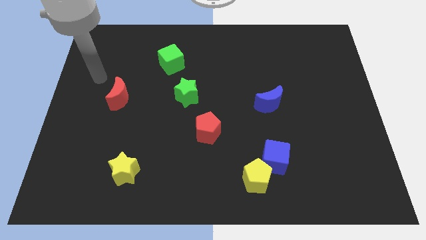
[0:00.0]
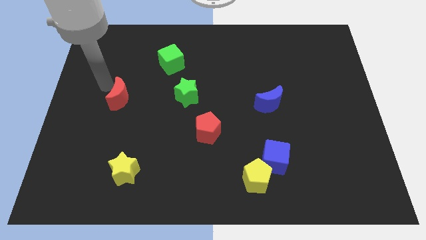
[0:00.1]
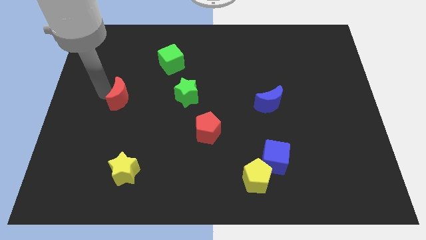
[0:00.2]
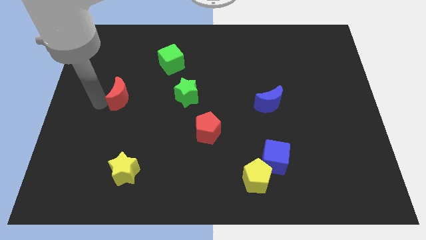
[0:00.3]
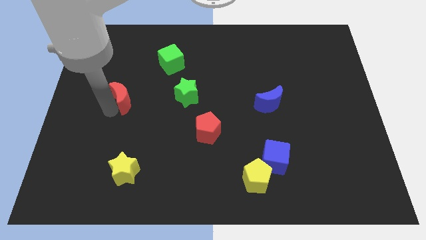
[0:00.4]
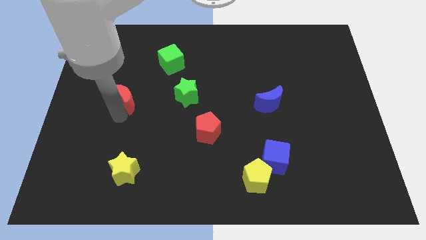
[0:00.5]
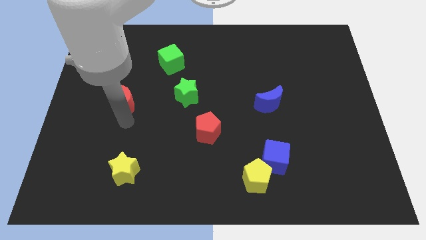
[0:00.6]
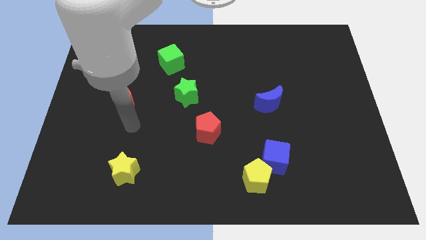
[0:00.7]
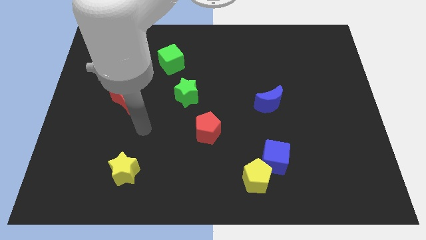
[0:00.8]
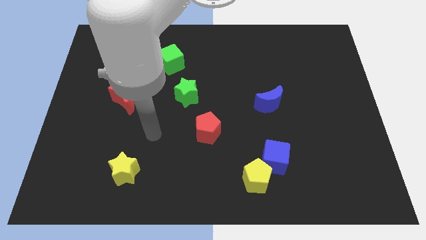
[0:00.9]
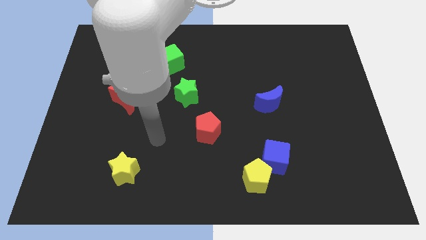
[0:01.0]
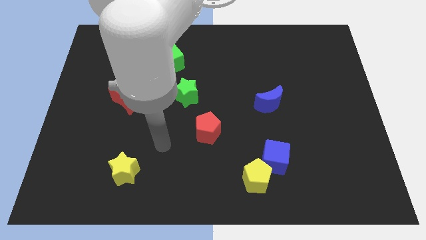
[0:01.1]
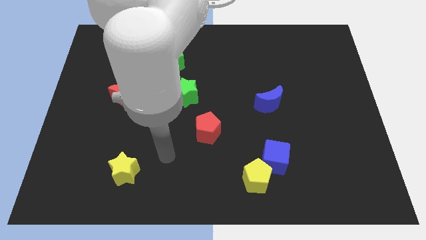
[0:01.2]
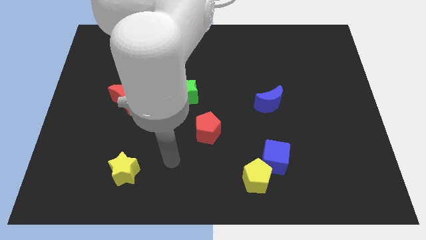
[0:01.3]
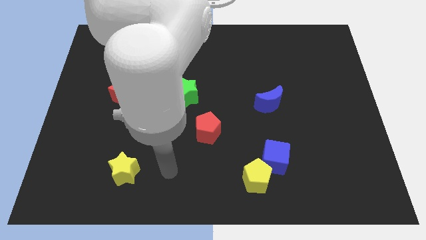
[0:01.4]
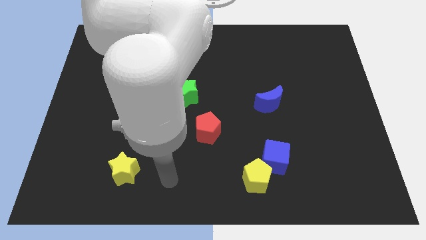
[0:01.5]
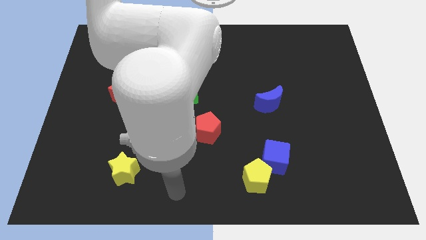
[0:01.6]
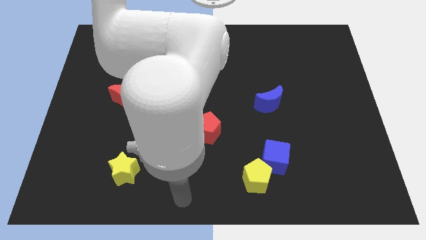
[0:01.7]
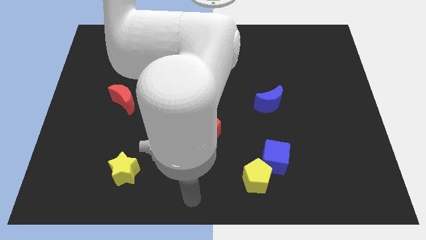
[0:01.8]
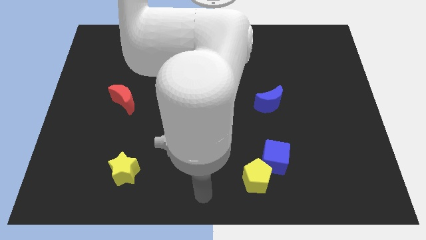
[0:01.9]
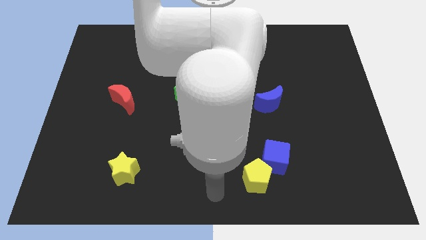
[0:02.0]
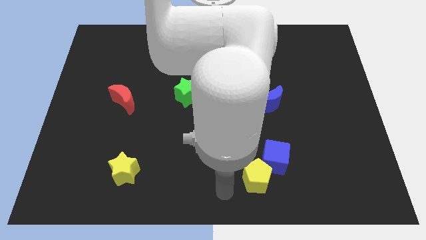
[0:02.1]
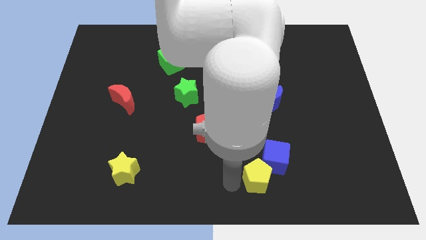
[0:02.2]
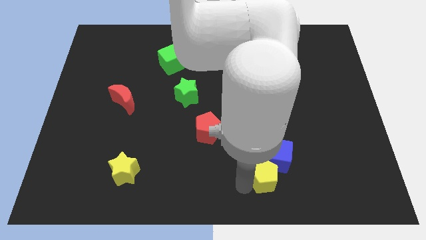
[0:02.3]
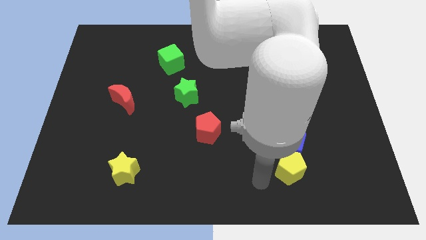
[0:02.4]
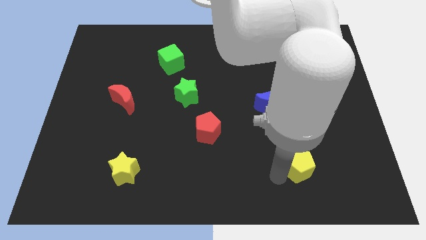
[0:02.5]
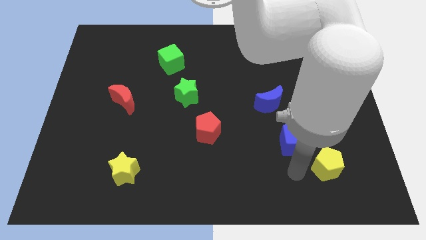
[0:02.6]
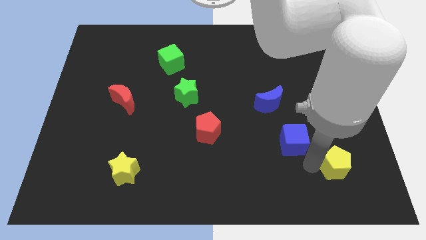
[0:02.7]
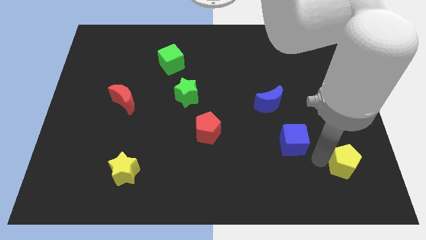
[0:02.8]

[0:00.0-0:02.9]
pull the blue cube apart from the yellow pentagon

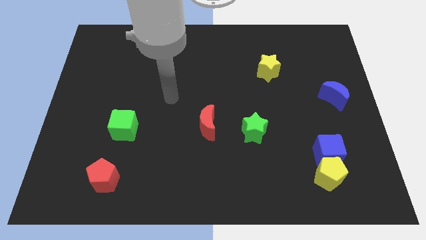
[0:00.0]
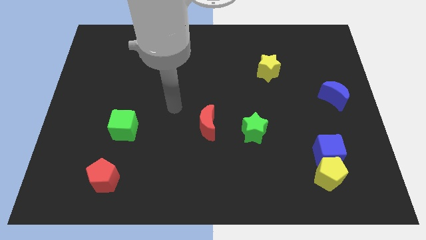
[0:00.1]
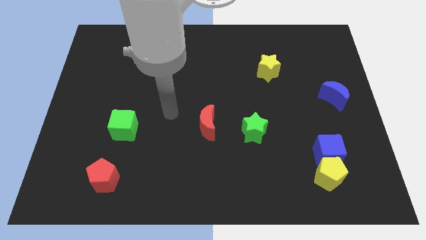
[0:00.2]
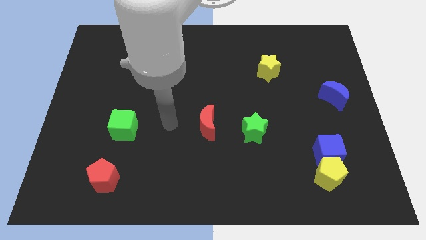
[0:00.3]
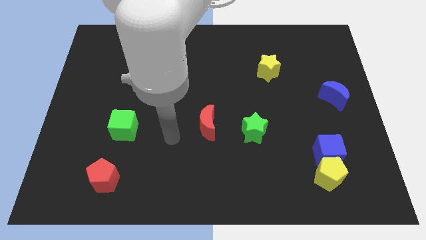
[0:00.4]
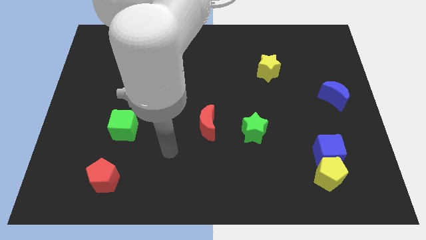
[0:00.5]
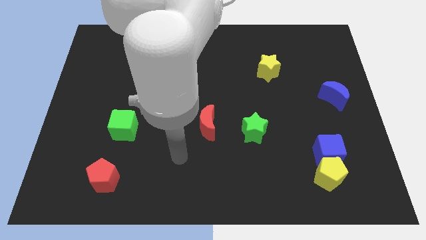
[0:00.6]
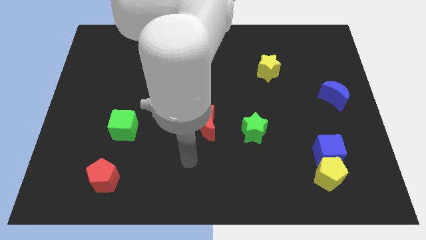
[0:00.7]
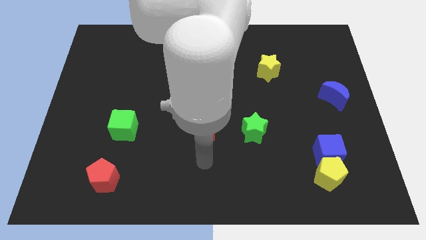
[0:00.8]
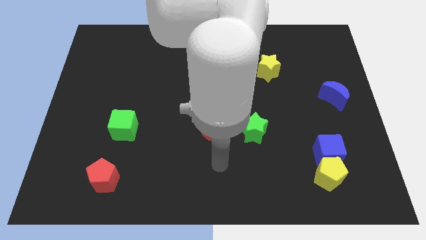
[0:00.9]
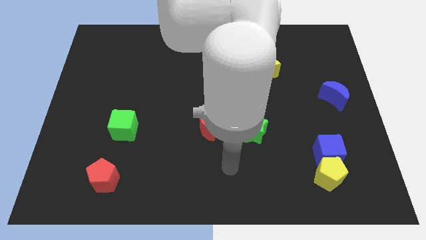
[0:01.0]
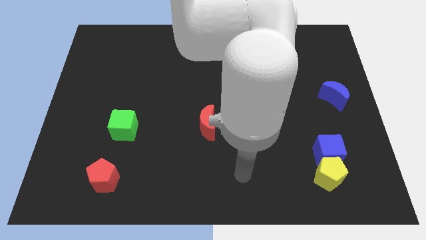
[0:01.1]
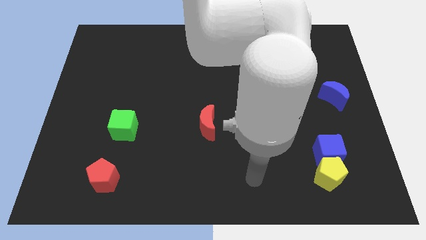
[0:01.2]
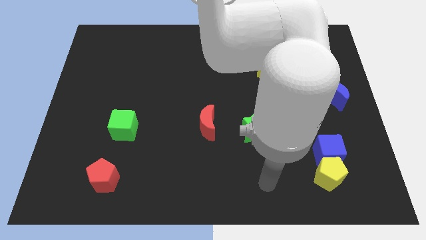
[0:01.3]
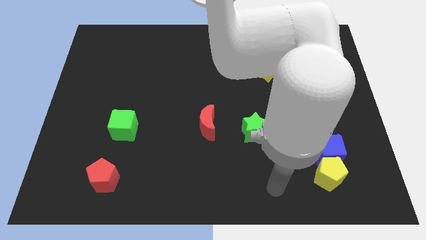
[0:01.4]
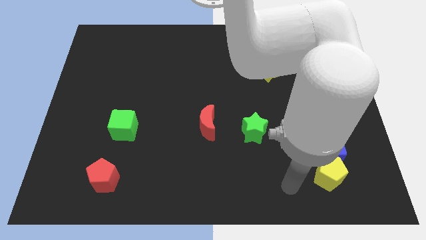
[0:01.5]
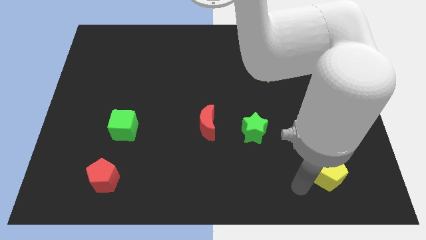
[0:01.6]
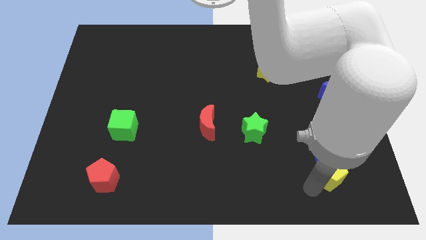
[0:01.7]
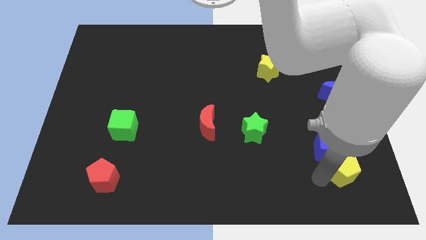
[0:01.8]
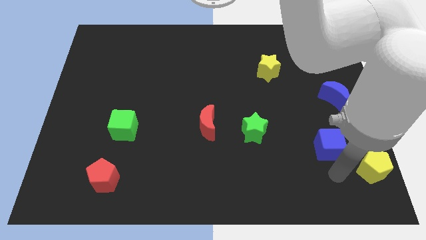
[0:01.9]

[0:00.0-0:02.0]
move the blue cube away from the yellow pentagon

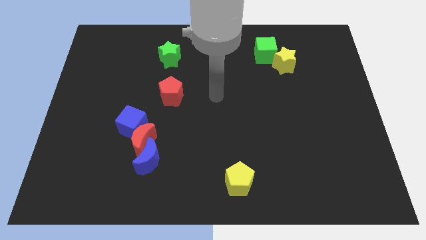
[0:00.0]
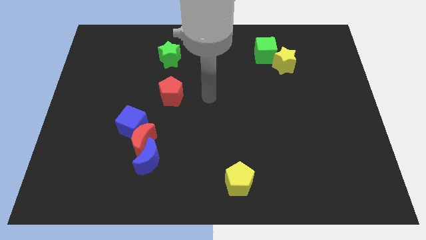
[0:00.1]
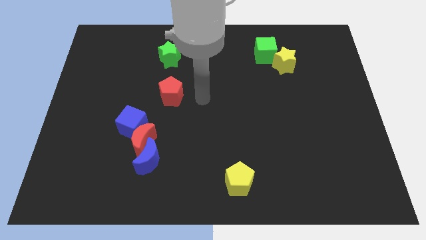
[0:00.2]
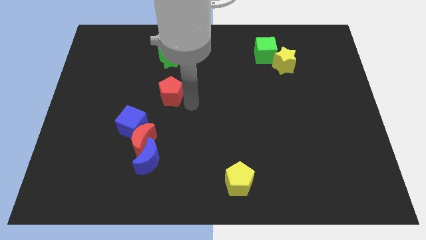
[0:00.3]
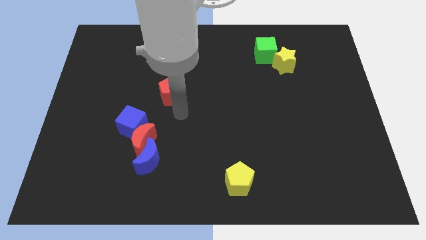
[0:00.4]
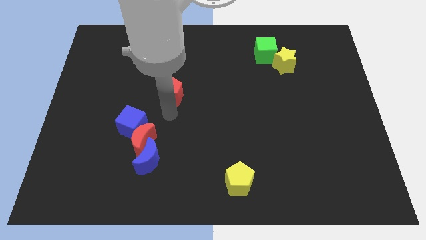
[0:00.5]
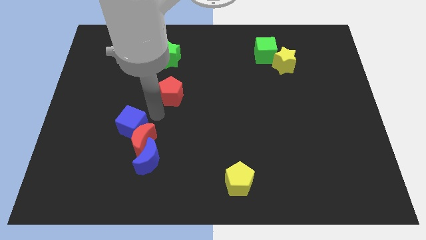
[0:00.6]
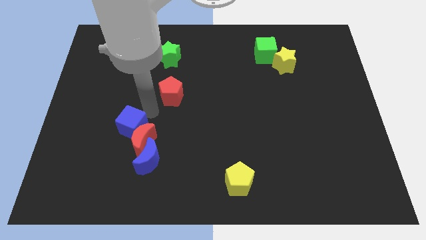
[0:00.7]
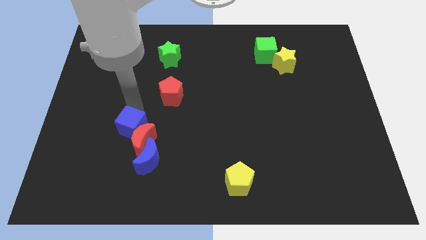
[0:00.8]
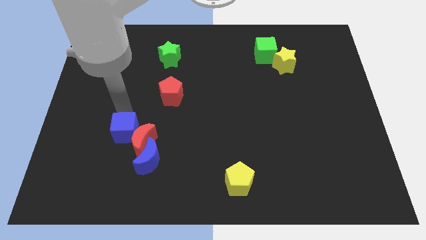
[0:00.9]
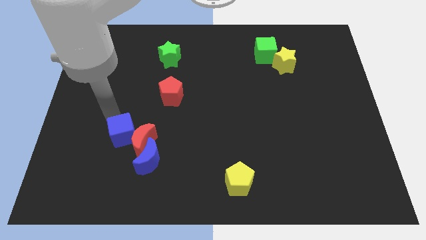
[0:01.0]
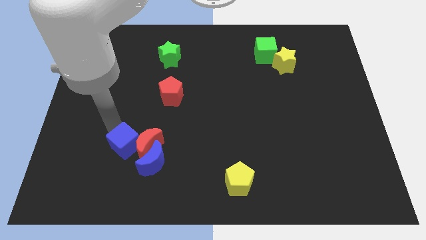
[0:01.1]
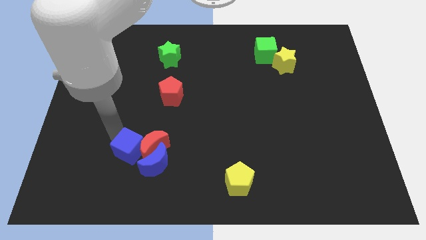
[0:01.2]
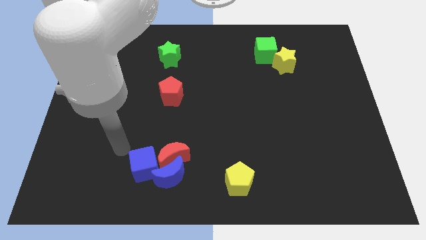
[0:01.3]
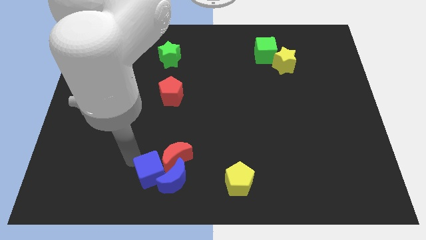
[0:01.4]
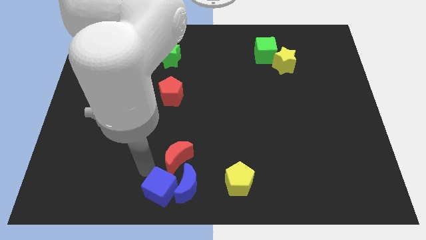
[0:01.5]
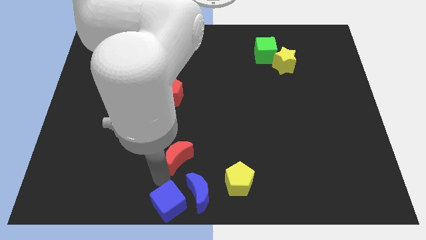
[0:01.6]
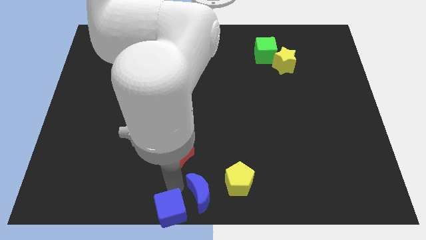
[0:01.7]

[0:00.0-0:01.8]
pull the red moon apart from the blue moon and blue cube

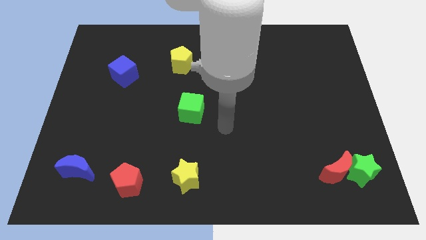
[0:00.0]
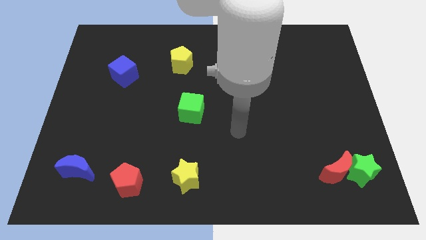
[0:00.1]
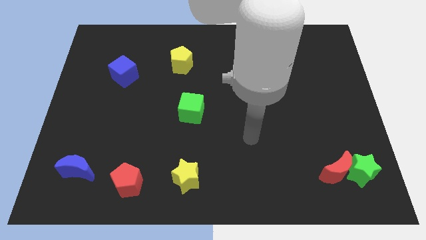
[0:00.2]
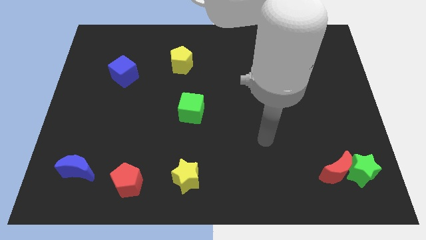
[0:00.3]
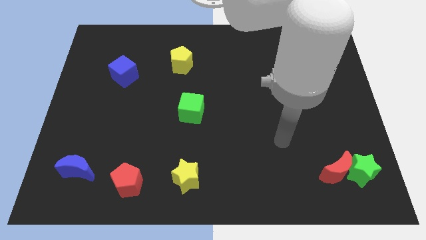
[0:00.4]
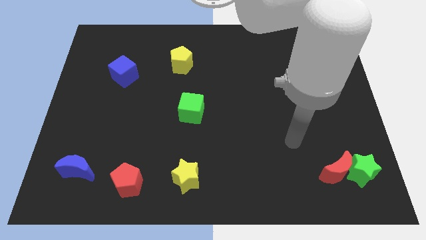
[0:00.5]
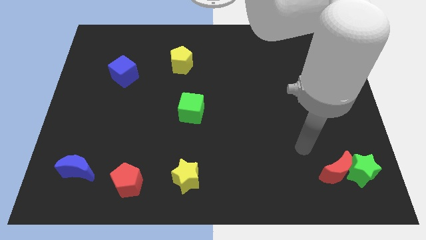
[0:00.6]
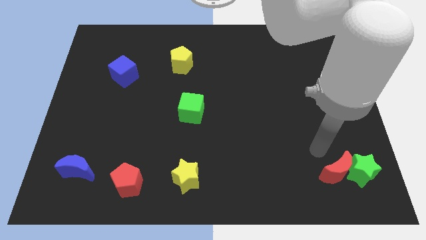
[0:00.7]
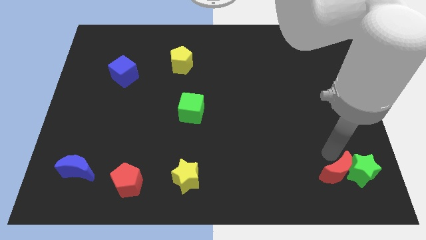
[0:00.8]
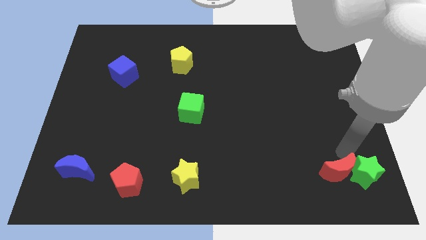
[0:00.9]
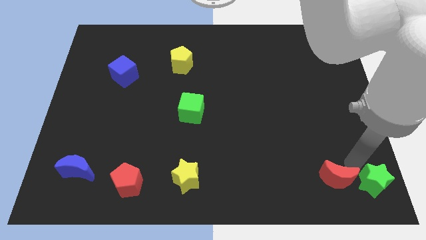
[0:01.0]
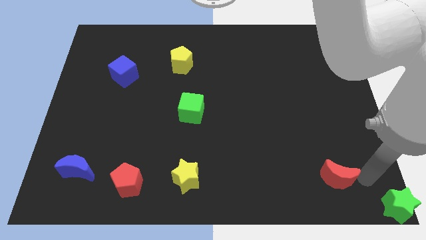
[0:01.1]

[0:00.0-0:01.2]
separate the red moon from the green star

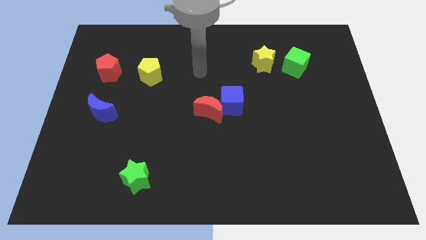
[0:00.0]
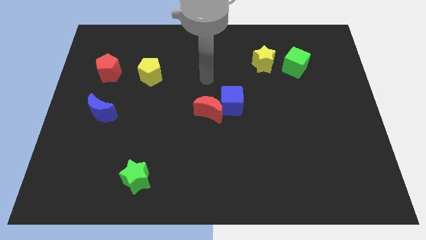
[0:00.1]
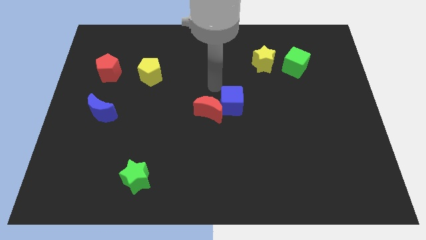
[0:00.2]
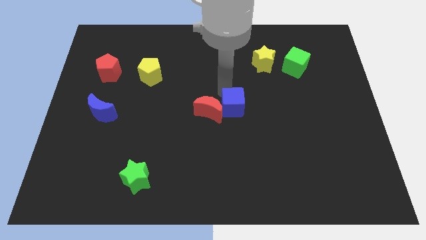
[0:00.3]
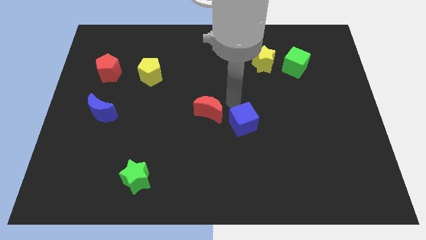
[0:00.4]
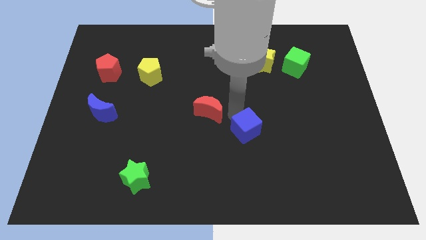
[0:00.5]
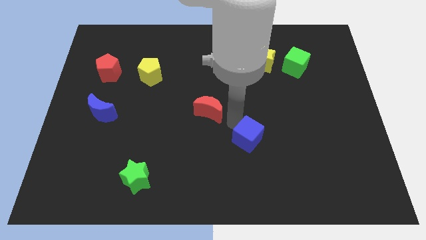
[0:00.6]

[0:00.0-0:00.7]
move the red moon away from the blue cube

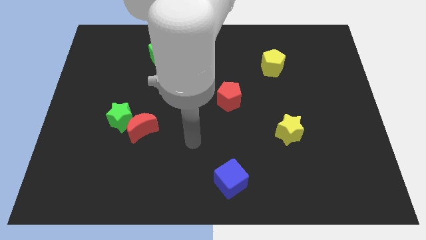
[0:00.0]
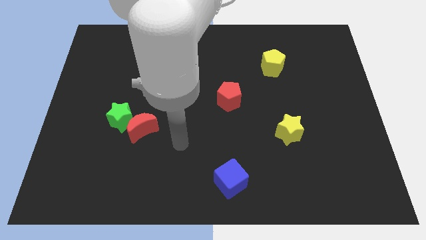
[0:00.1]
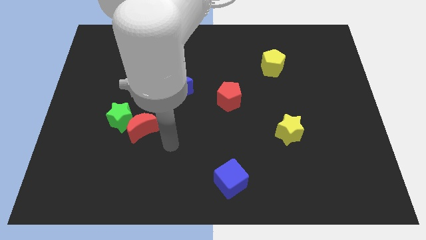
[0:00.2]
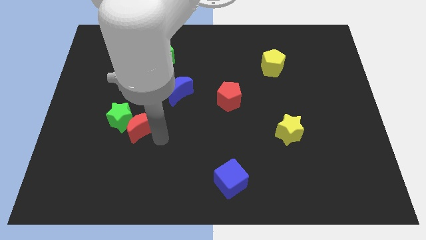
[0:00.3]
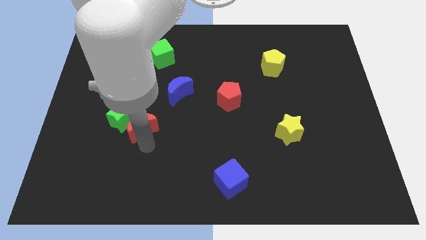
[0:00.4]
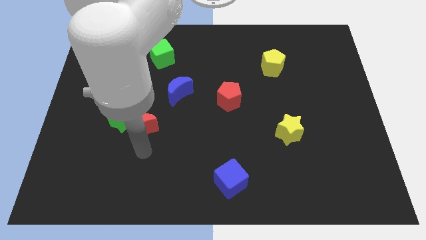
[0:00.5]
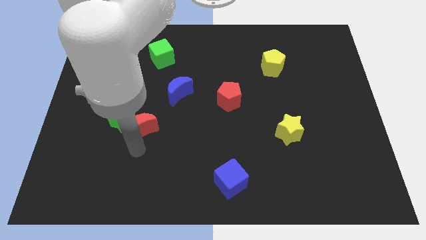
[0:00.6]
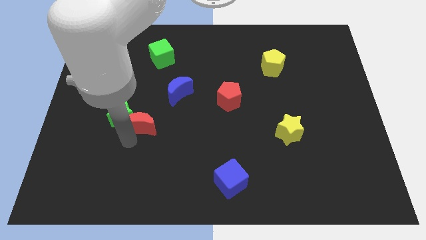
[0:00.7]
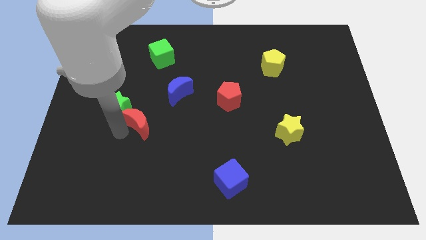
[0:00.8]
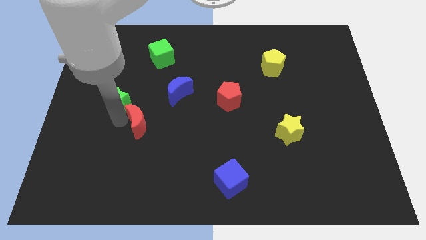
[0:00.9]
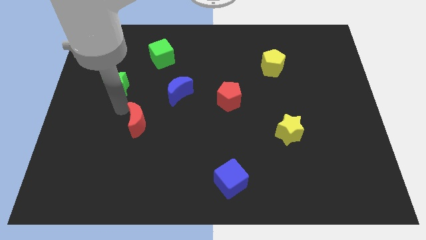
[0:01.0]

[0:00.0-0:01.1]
move the red moon away from the green star
